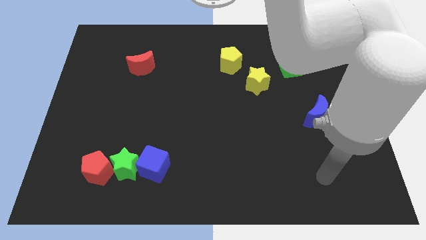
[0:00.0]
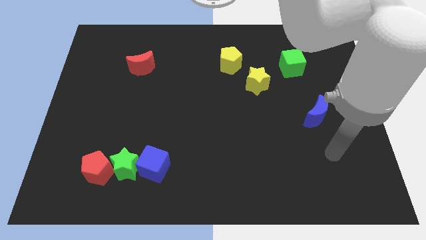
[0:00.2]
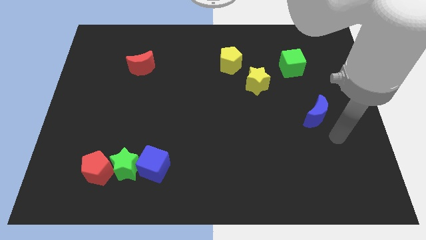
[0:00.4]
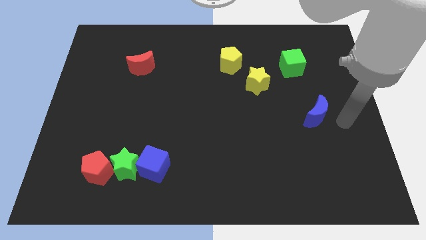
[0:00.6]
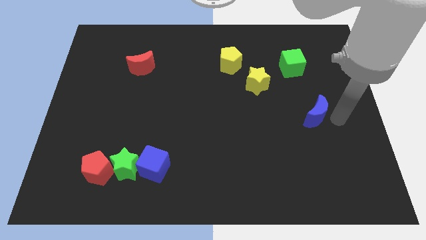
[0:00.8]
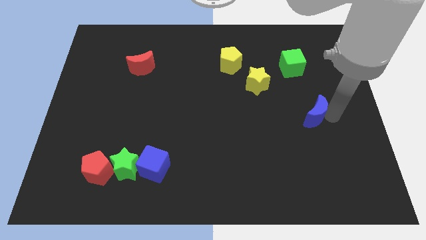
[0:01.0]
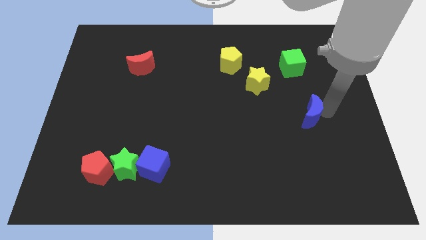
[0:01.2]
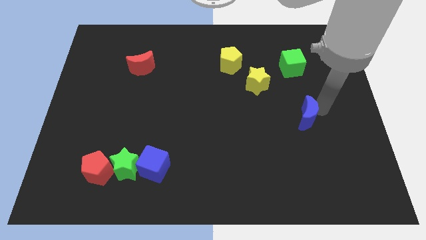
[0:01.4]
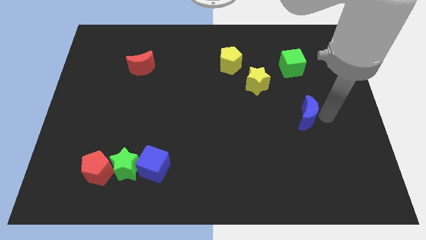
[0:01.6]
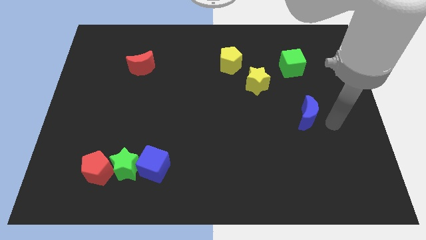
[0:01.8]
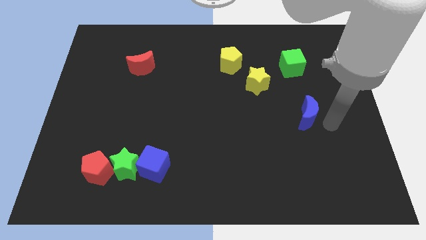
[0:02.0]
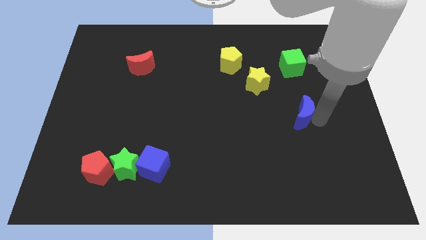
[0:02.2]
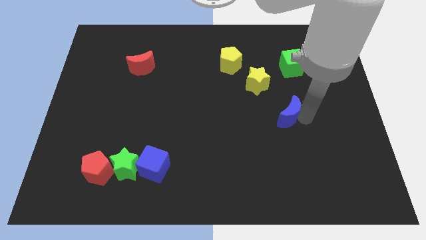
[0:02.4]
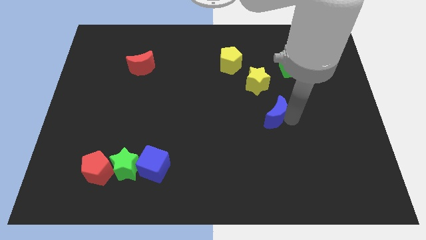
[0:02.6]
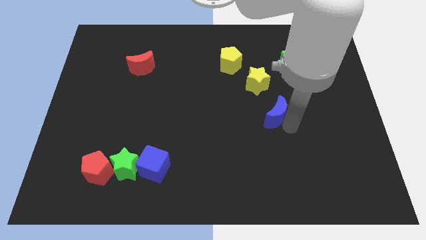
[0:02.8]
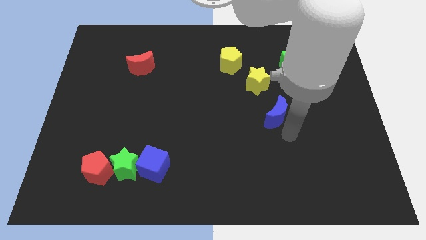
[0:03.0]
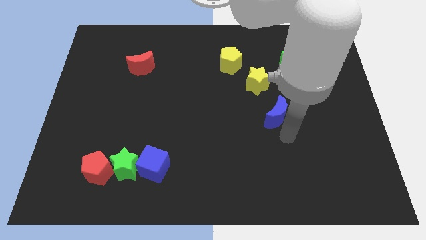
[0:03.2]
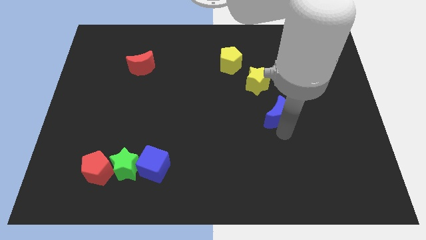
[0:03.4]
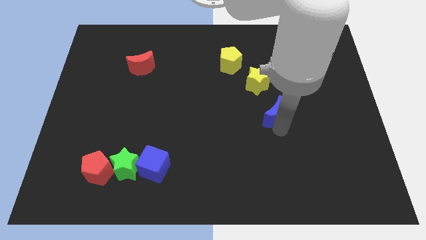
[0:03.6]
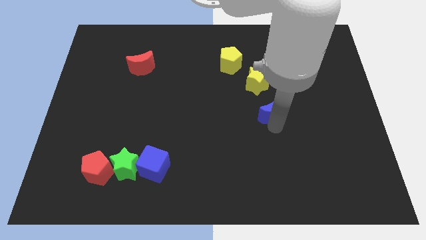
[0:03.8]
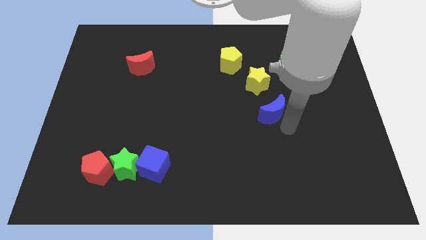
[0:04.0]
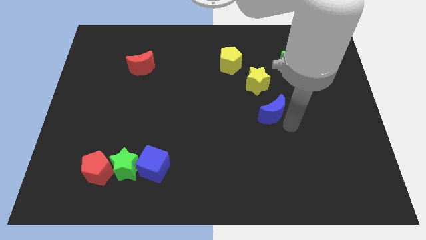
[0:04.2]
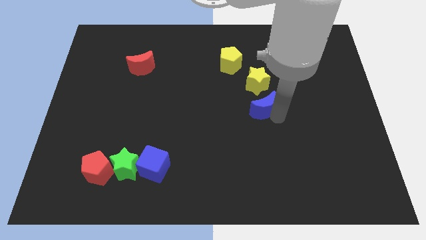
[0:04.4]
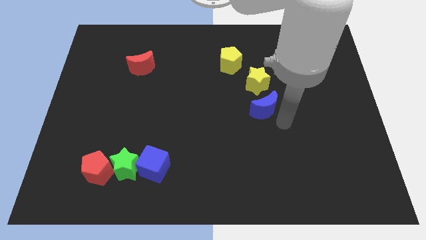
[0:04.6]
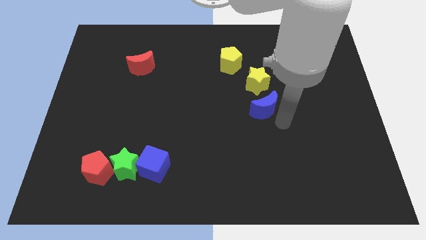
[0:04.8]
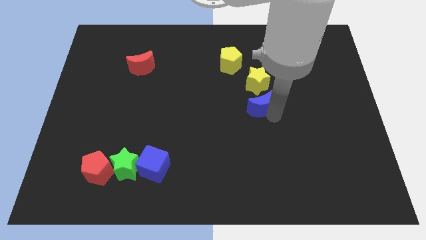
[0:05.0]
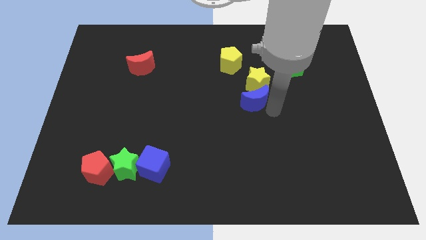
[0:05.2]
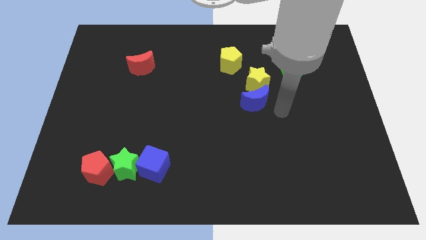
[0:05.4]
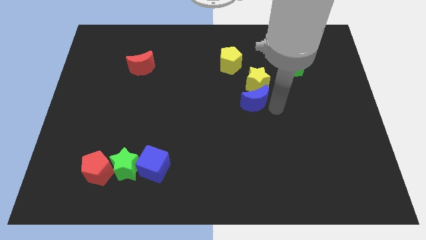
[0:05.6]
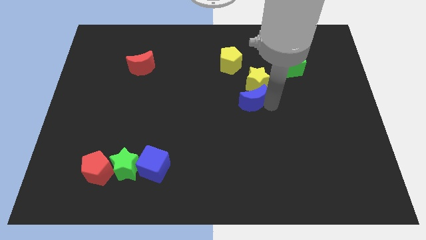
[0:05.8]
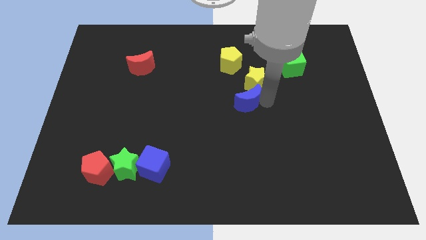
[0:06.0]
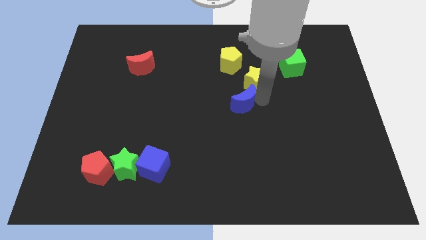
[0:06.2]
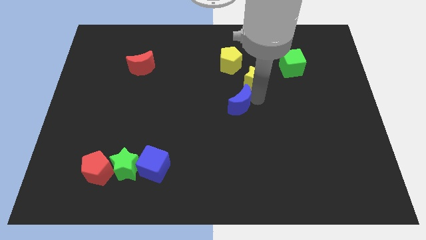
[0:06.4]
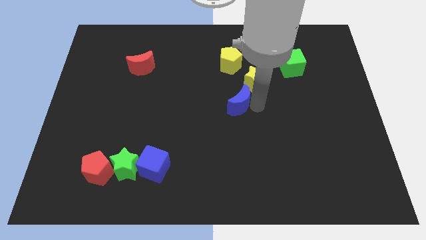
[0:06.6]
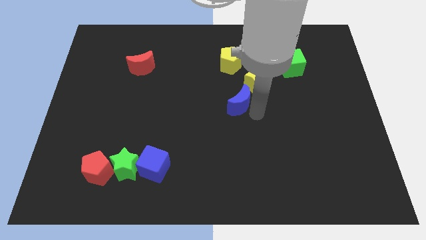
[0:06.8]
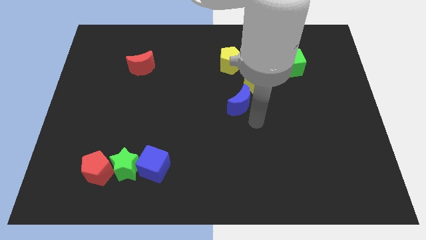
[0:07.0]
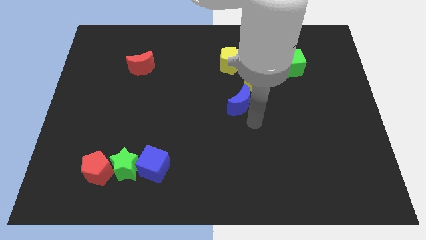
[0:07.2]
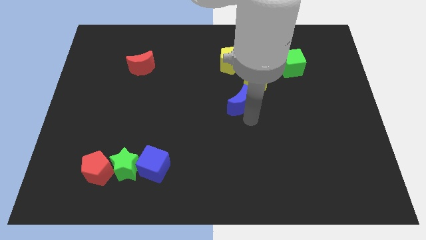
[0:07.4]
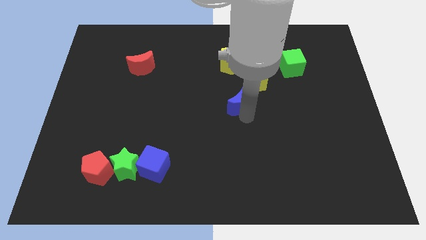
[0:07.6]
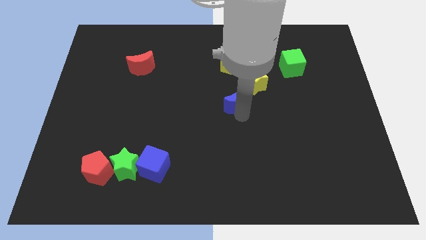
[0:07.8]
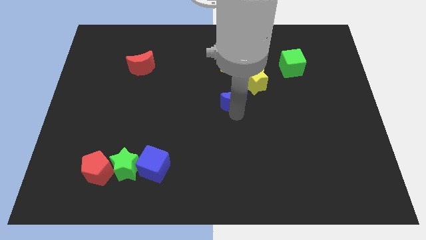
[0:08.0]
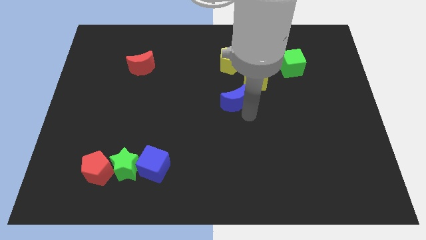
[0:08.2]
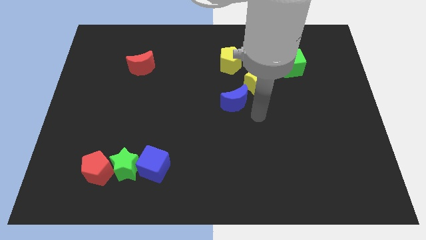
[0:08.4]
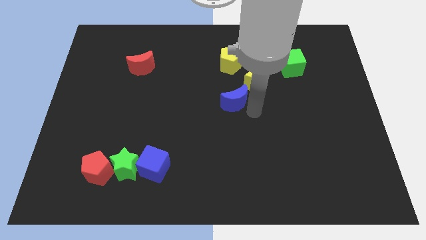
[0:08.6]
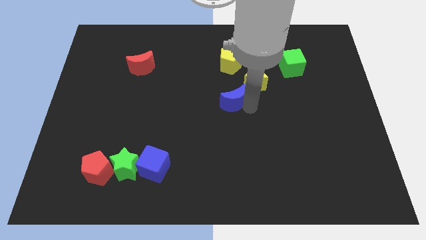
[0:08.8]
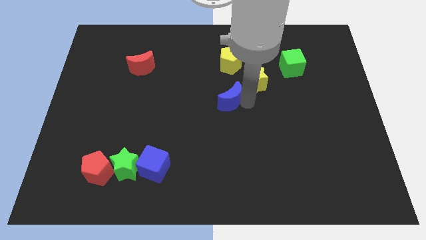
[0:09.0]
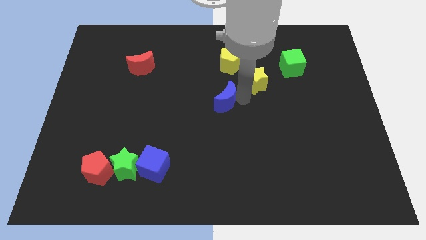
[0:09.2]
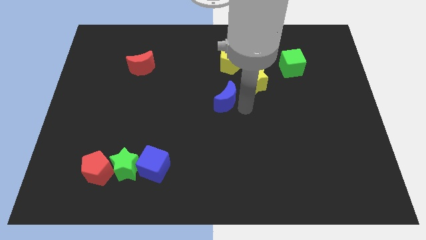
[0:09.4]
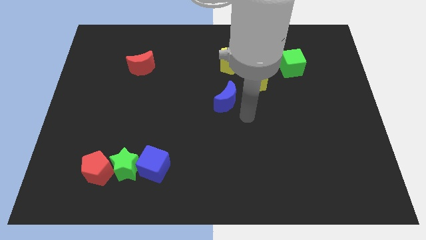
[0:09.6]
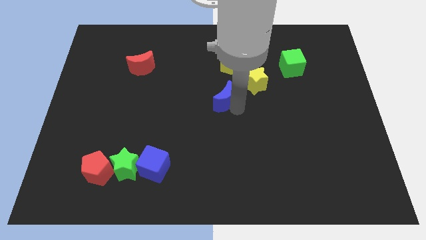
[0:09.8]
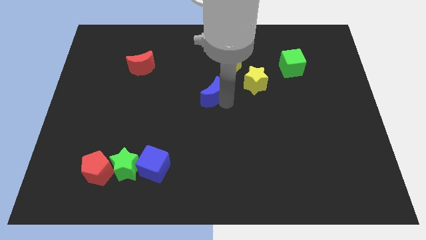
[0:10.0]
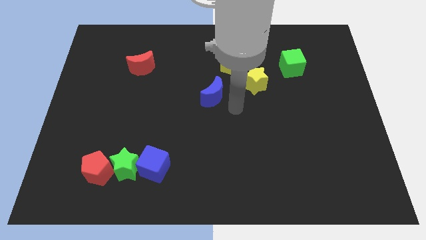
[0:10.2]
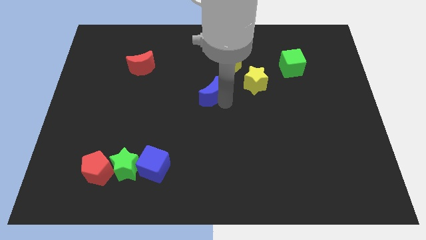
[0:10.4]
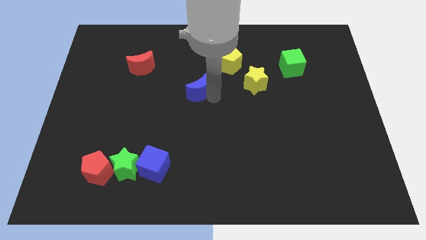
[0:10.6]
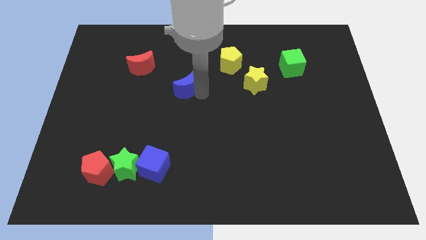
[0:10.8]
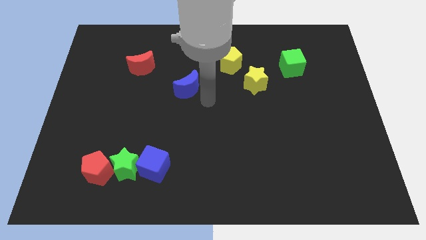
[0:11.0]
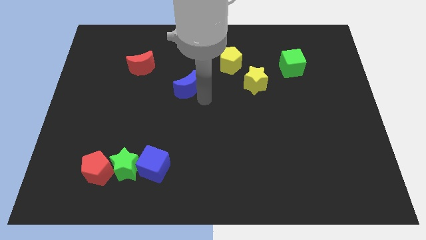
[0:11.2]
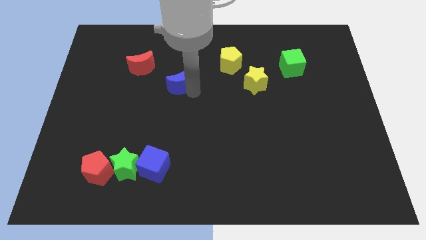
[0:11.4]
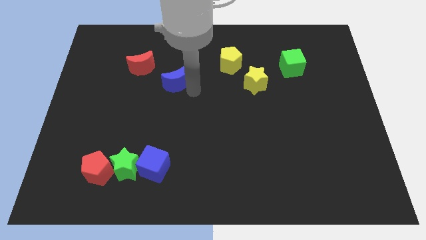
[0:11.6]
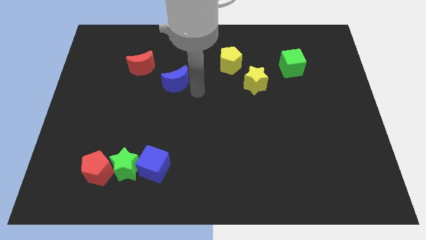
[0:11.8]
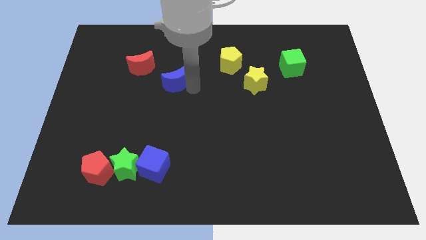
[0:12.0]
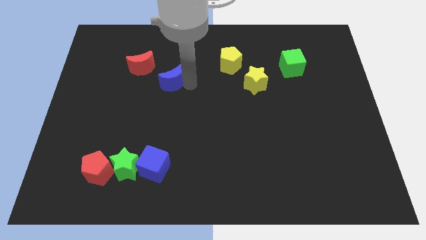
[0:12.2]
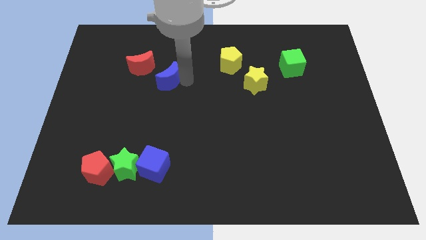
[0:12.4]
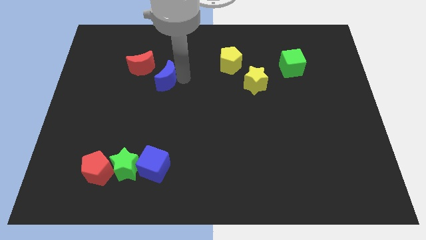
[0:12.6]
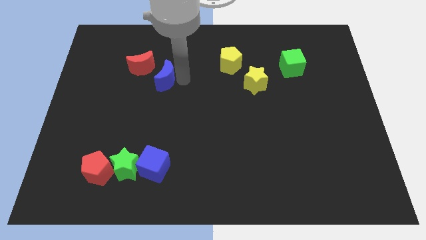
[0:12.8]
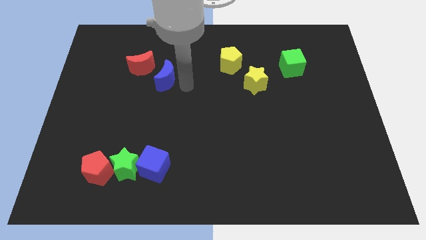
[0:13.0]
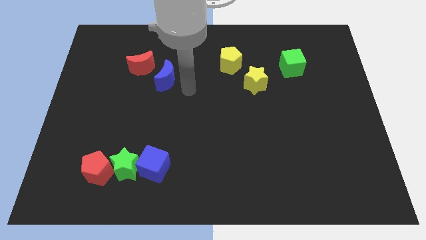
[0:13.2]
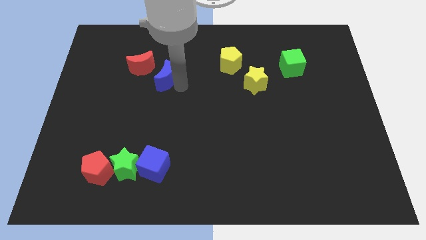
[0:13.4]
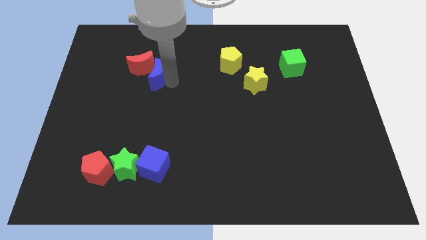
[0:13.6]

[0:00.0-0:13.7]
move the blue moon next to the red moon
